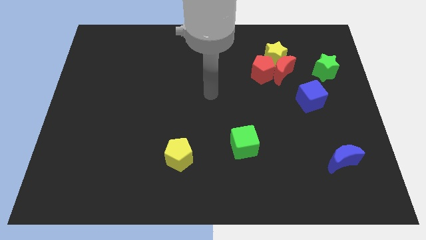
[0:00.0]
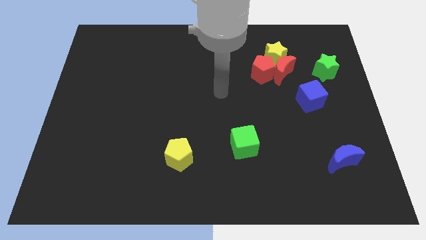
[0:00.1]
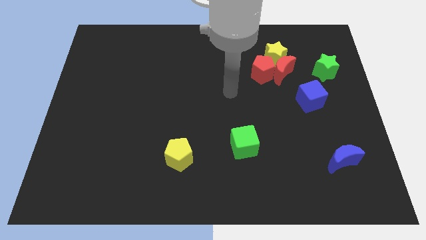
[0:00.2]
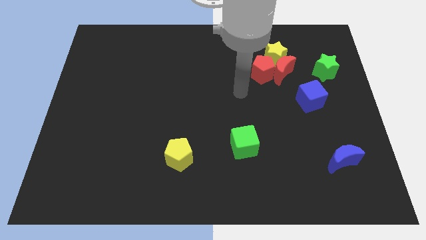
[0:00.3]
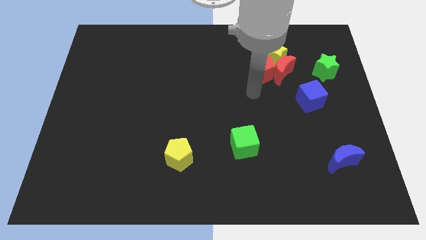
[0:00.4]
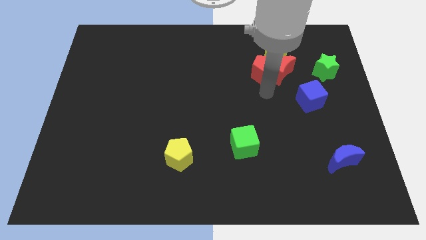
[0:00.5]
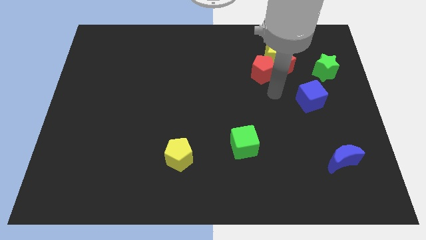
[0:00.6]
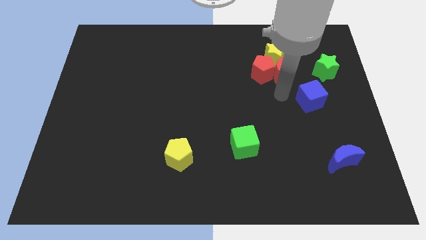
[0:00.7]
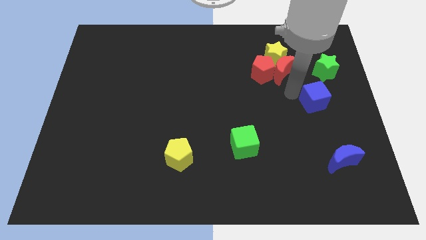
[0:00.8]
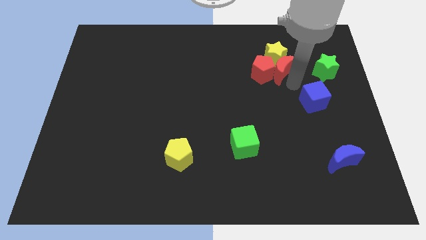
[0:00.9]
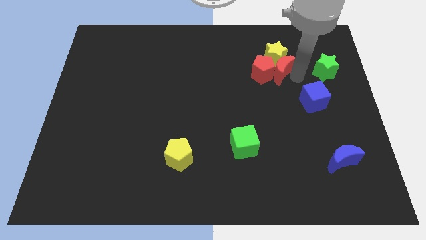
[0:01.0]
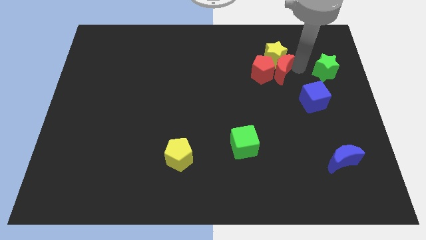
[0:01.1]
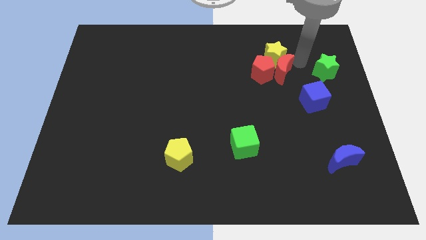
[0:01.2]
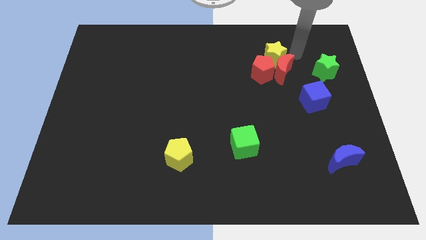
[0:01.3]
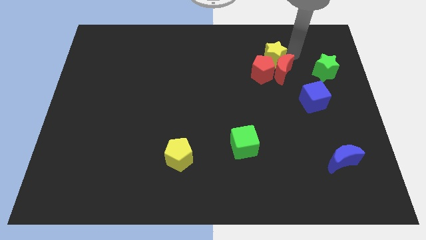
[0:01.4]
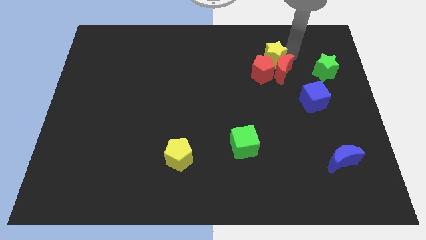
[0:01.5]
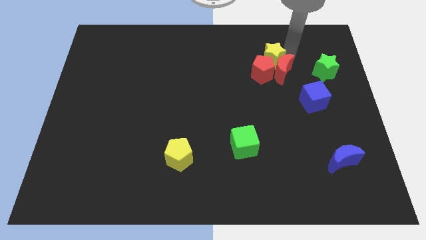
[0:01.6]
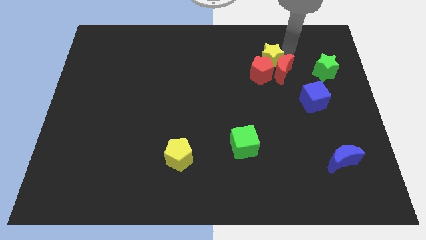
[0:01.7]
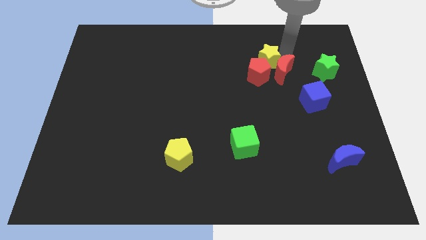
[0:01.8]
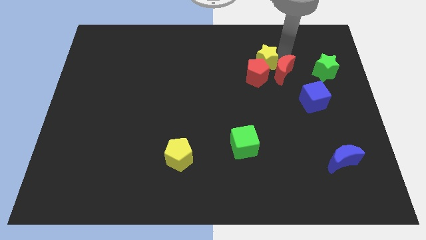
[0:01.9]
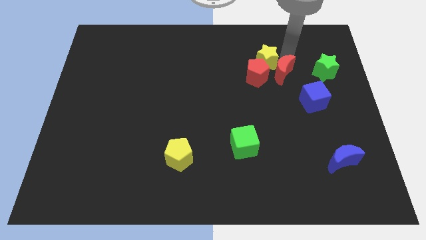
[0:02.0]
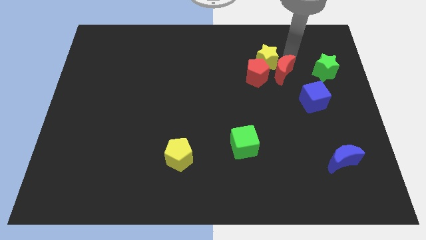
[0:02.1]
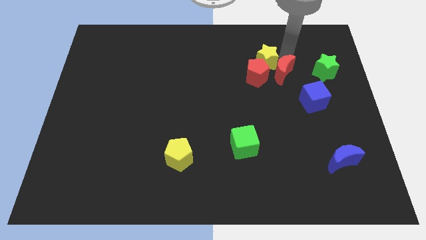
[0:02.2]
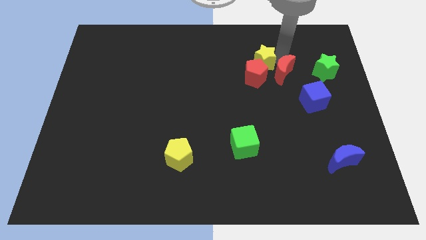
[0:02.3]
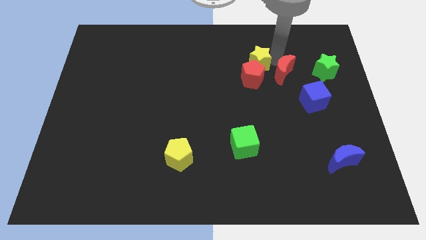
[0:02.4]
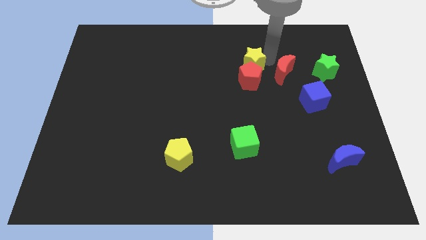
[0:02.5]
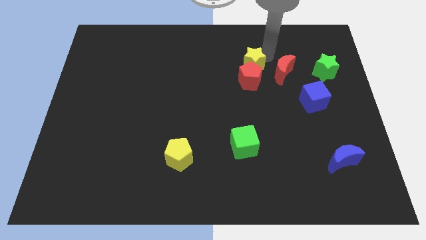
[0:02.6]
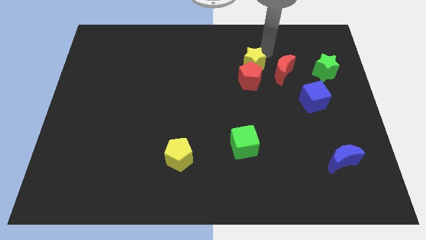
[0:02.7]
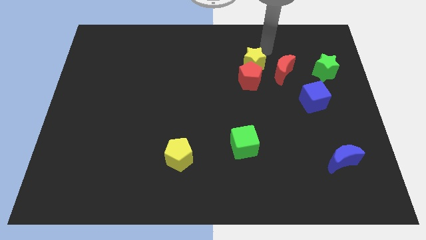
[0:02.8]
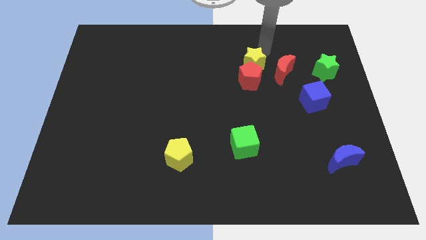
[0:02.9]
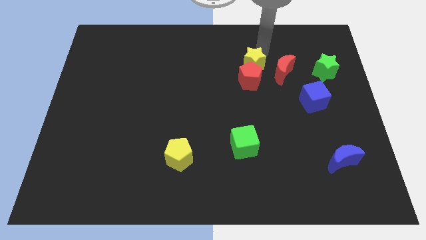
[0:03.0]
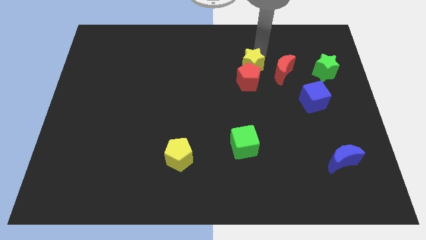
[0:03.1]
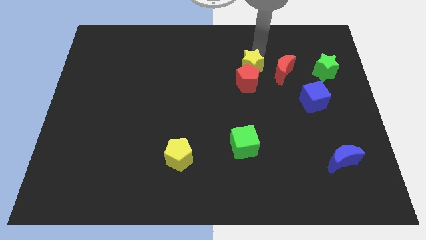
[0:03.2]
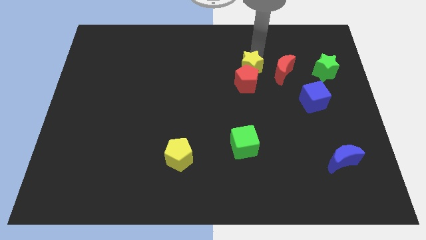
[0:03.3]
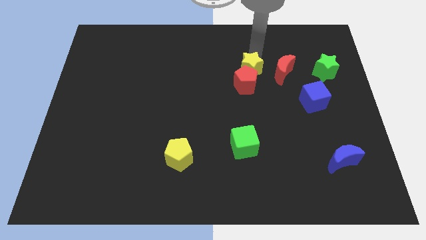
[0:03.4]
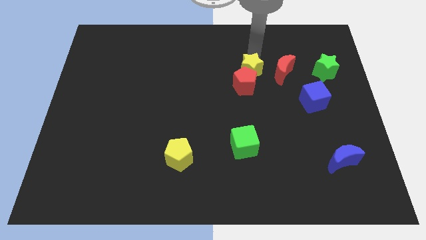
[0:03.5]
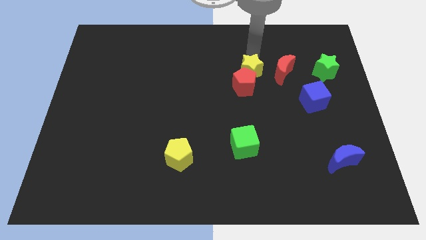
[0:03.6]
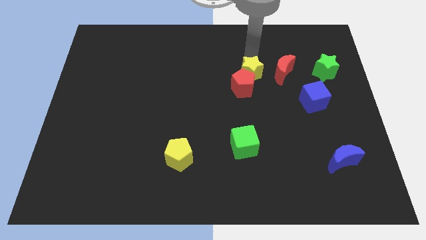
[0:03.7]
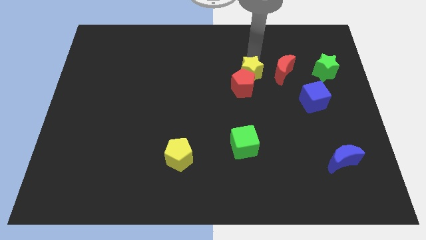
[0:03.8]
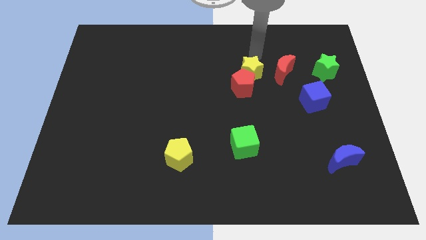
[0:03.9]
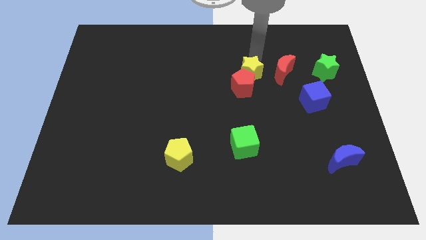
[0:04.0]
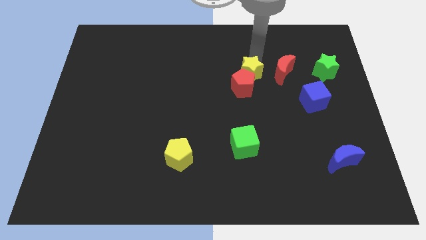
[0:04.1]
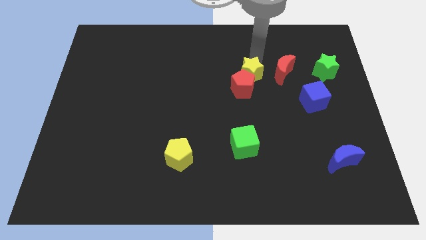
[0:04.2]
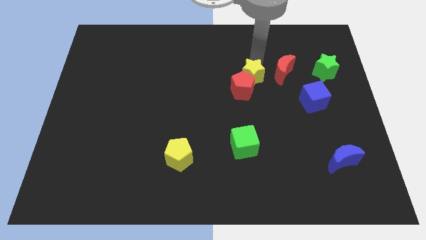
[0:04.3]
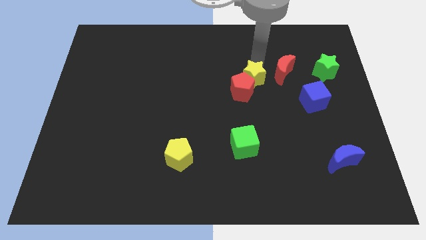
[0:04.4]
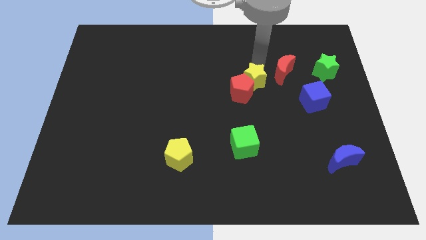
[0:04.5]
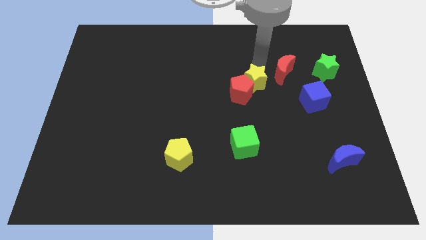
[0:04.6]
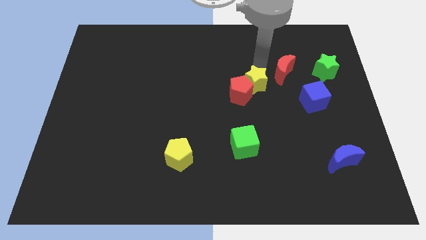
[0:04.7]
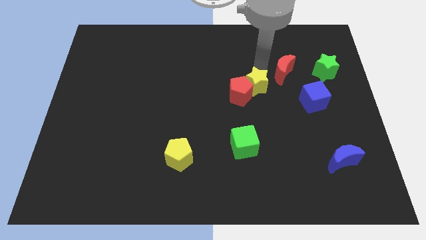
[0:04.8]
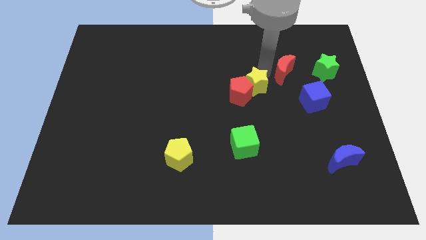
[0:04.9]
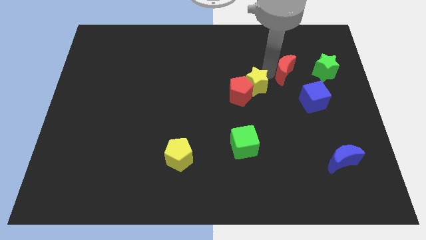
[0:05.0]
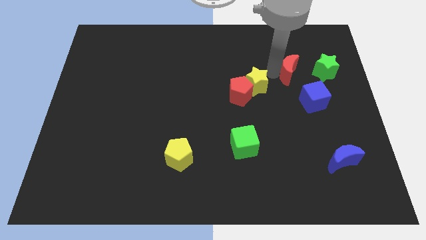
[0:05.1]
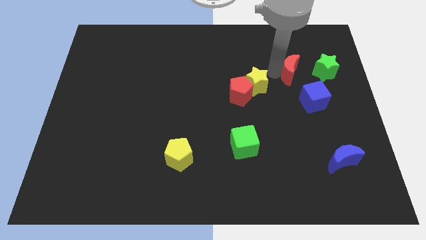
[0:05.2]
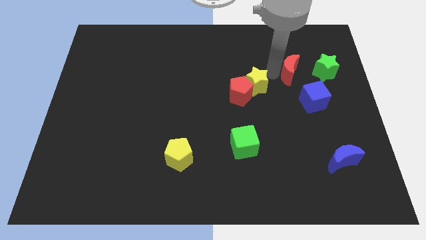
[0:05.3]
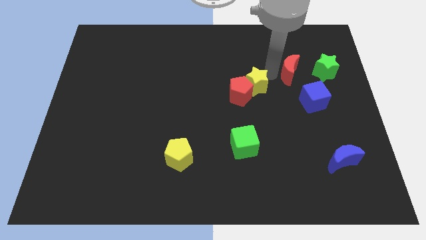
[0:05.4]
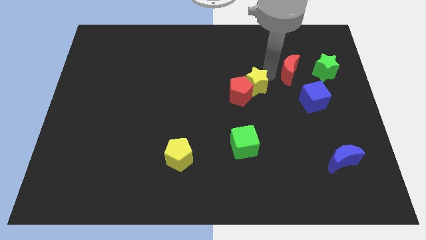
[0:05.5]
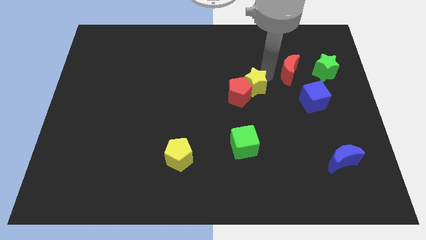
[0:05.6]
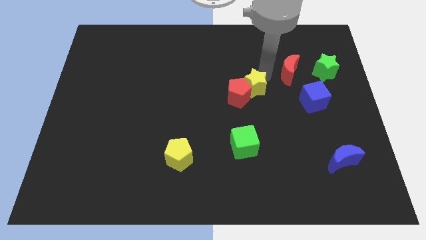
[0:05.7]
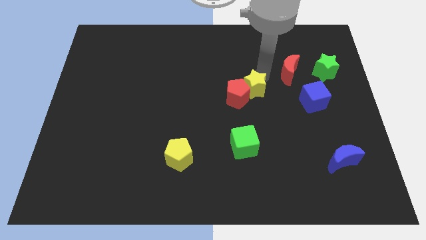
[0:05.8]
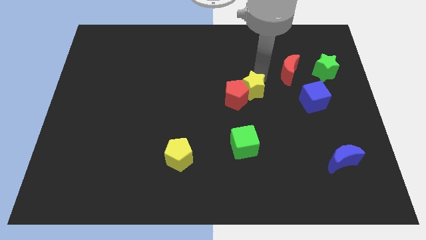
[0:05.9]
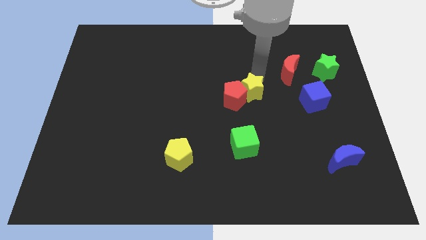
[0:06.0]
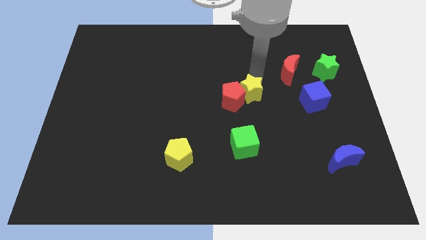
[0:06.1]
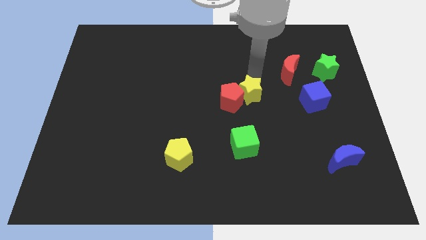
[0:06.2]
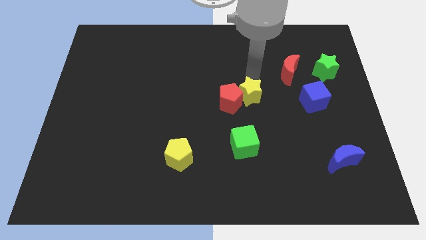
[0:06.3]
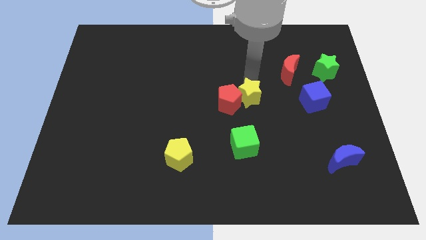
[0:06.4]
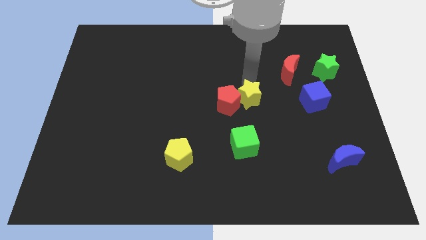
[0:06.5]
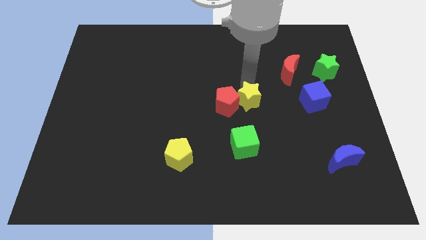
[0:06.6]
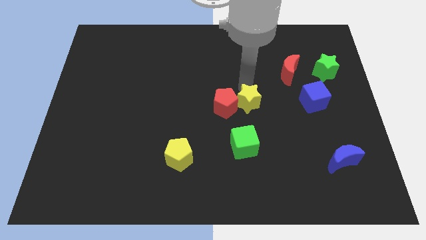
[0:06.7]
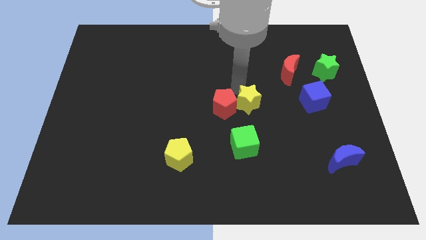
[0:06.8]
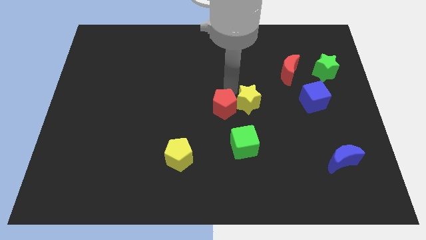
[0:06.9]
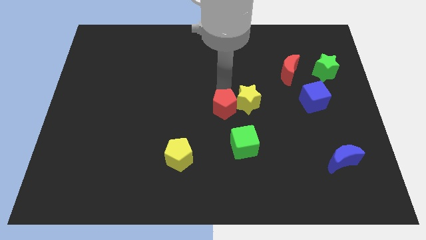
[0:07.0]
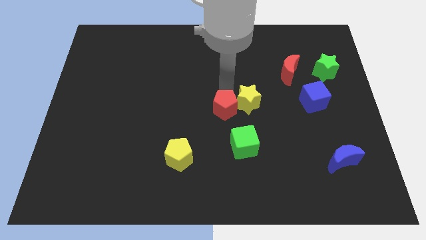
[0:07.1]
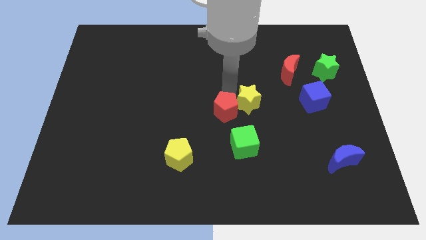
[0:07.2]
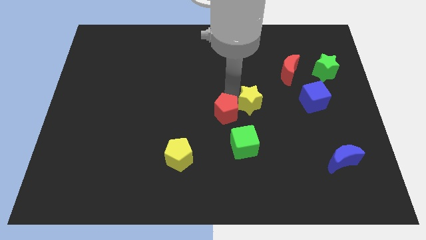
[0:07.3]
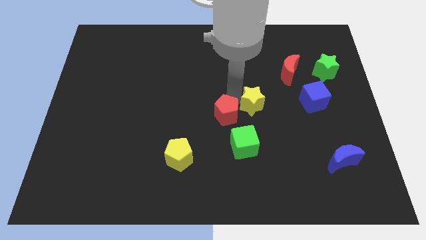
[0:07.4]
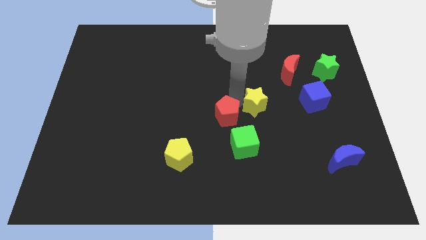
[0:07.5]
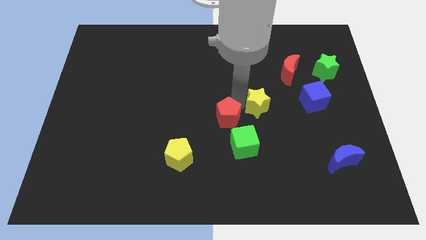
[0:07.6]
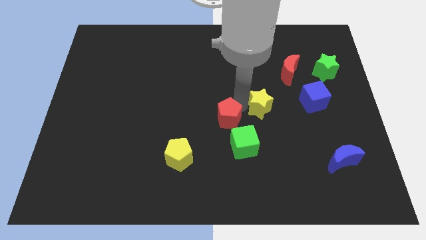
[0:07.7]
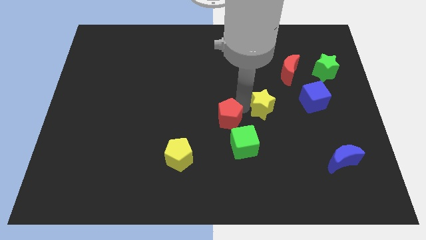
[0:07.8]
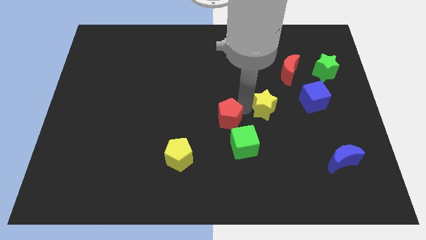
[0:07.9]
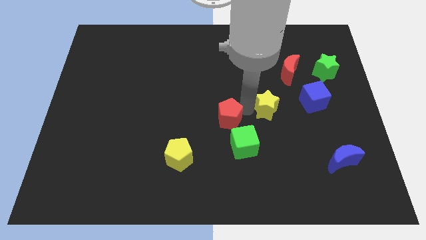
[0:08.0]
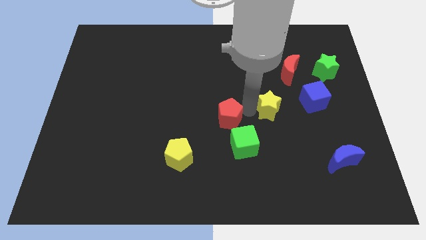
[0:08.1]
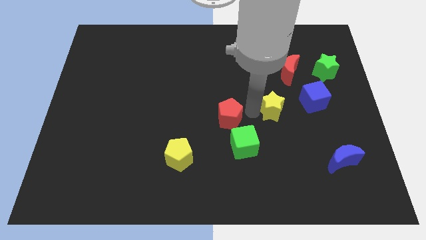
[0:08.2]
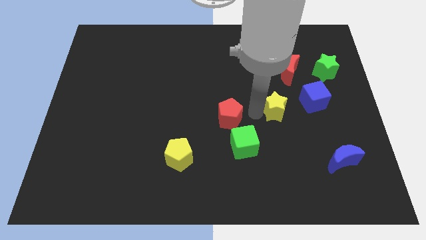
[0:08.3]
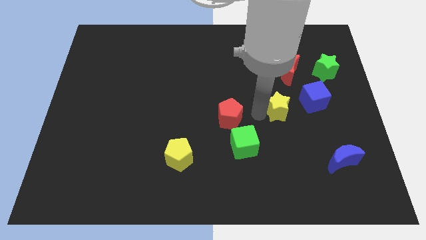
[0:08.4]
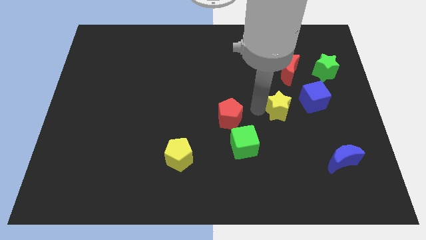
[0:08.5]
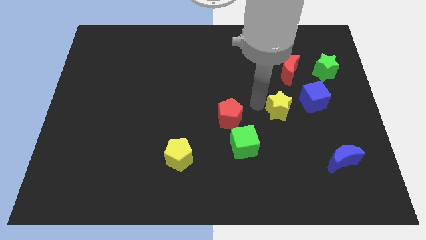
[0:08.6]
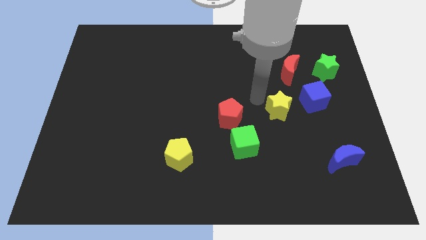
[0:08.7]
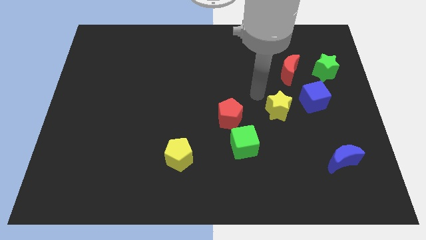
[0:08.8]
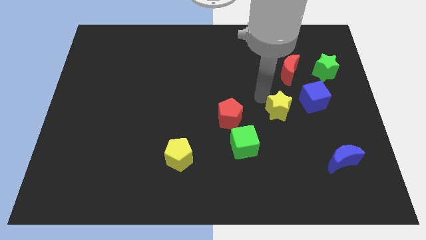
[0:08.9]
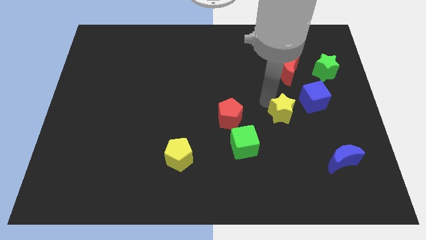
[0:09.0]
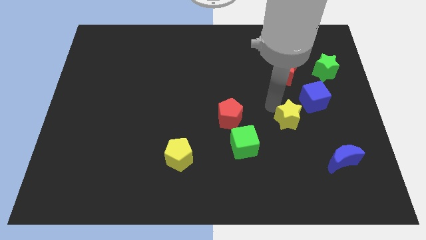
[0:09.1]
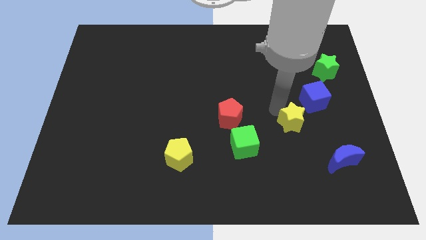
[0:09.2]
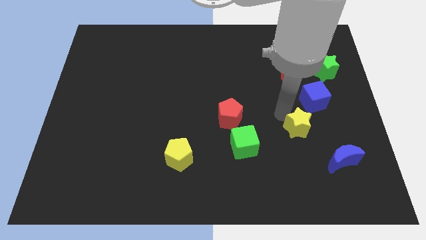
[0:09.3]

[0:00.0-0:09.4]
slide the yellow star diagonally up and to the left of the blue moon
